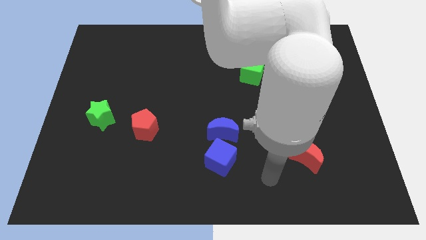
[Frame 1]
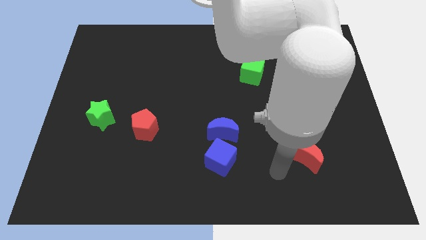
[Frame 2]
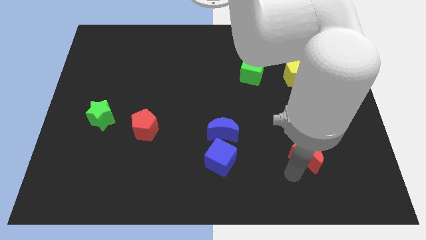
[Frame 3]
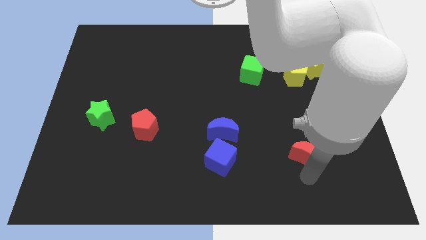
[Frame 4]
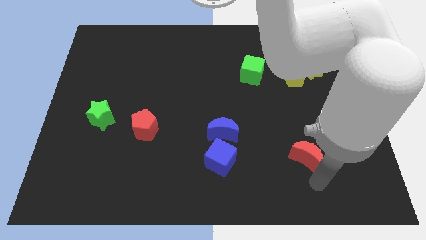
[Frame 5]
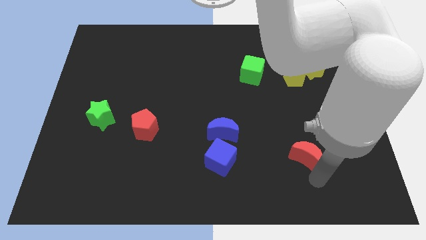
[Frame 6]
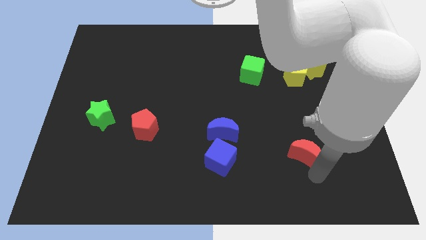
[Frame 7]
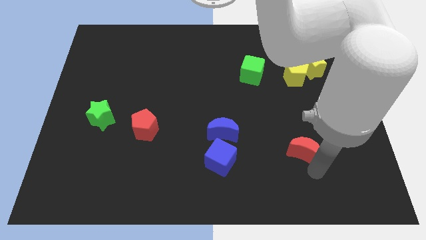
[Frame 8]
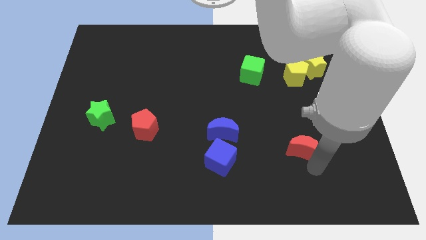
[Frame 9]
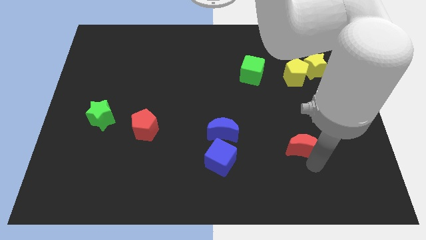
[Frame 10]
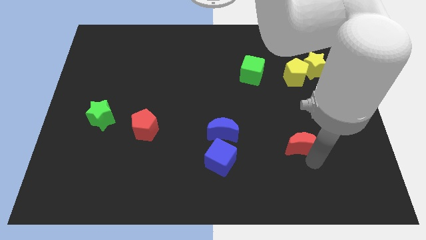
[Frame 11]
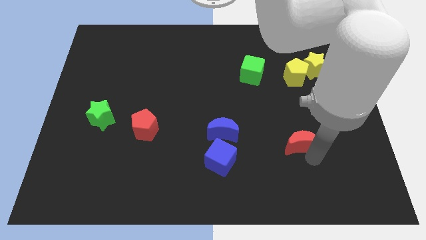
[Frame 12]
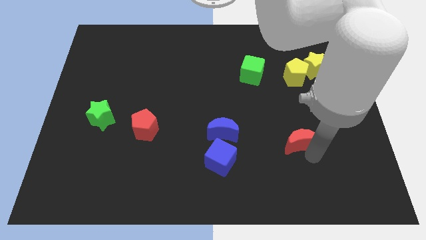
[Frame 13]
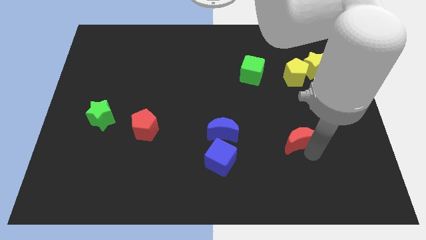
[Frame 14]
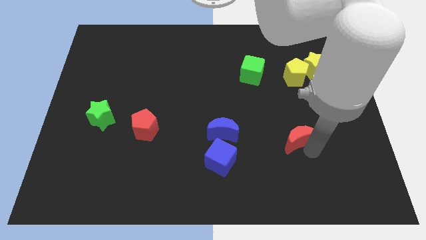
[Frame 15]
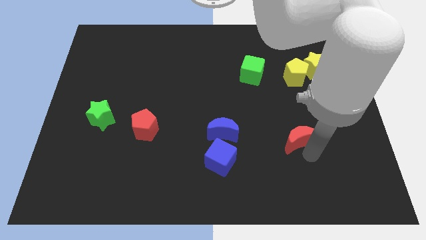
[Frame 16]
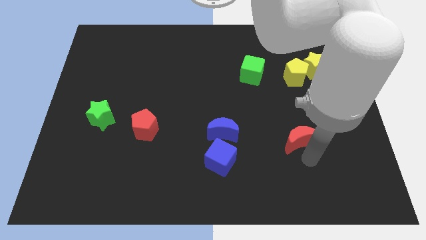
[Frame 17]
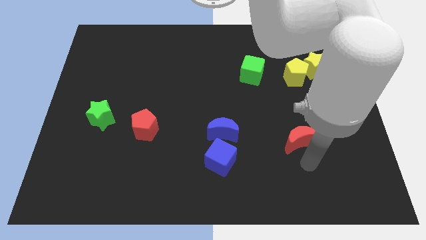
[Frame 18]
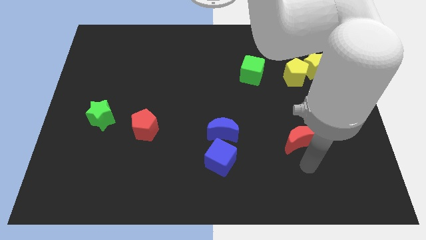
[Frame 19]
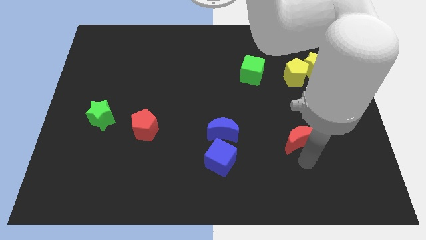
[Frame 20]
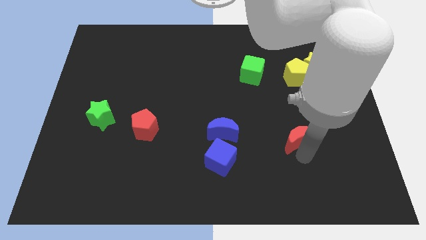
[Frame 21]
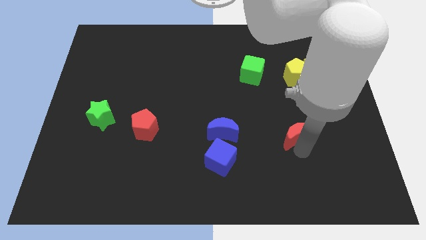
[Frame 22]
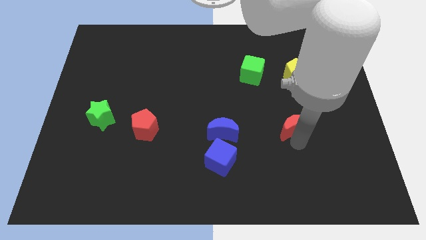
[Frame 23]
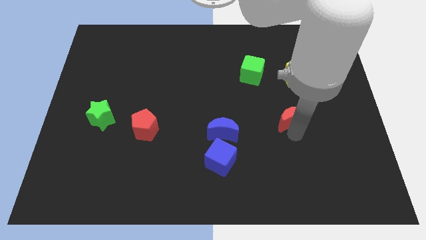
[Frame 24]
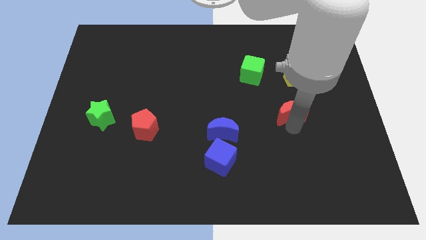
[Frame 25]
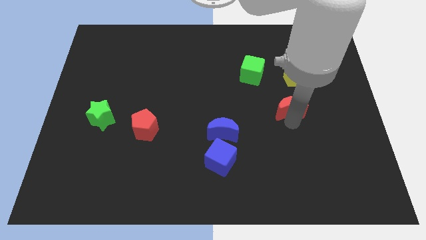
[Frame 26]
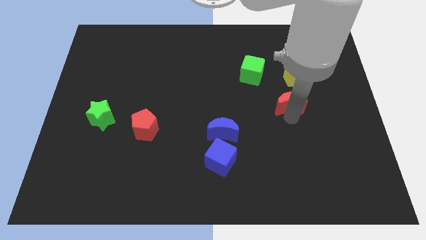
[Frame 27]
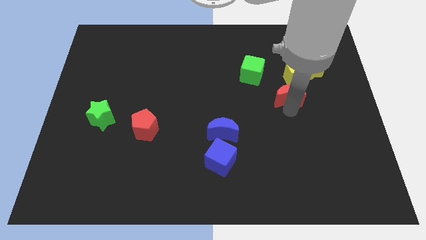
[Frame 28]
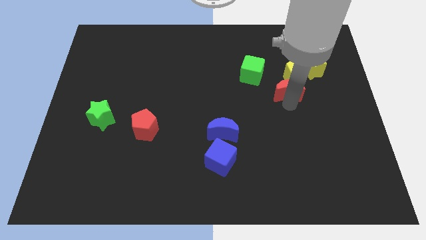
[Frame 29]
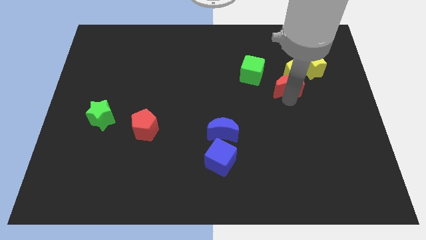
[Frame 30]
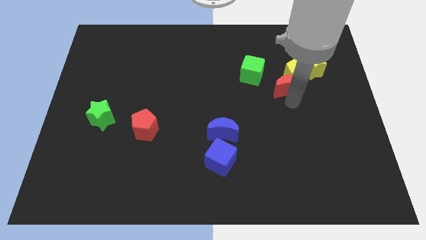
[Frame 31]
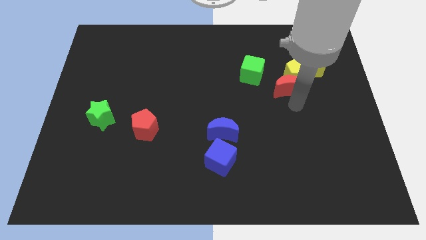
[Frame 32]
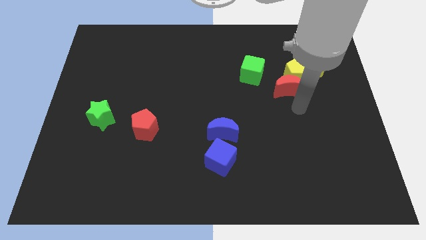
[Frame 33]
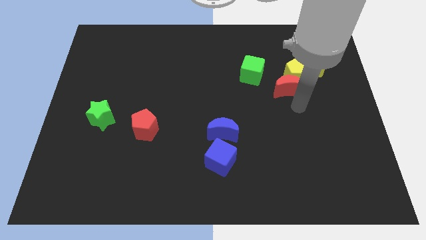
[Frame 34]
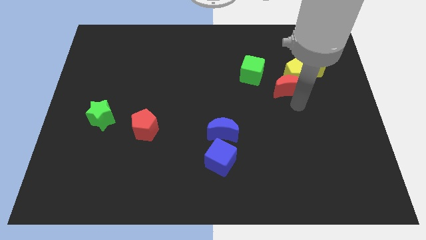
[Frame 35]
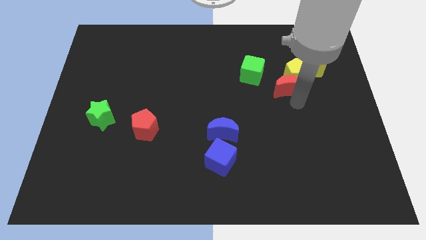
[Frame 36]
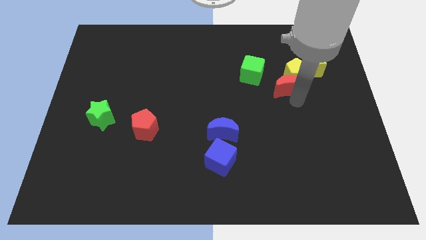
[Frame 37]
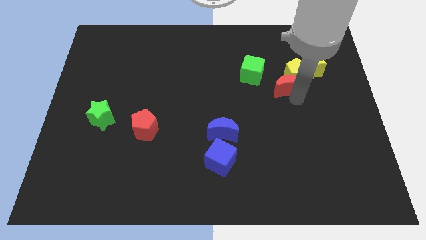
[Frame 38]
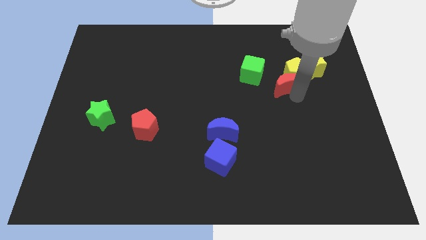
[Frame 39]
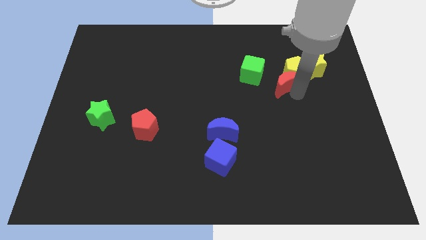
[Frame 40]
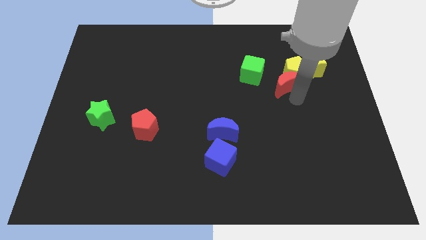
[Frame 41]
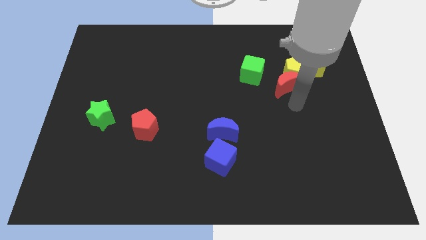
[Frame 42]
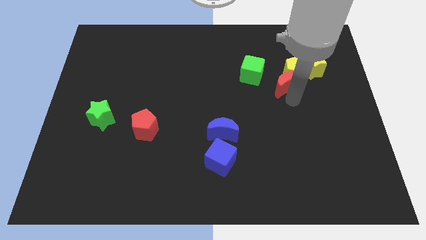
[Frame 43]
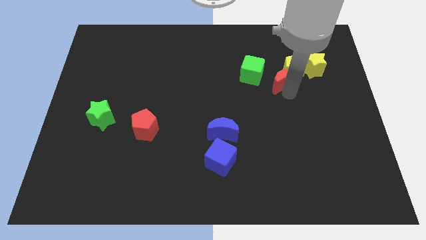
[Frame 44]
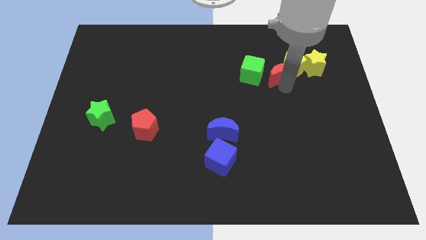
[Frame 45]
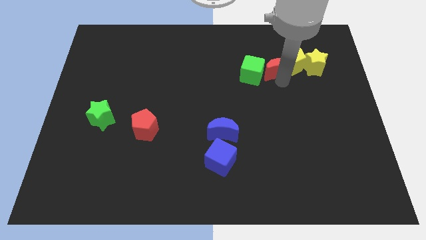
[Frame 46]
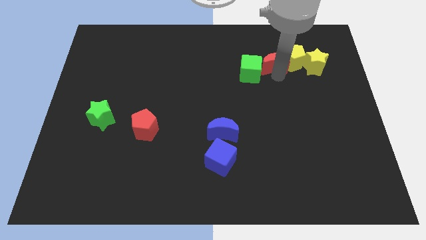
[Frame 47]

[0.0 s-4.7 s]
put the red moon to the top left of the yellow pentagon

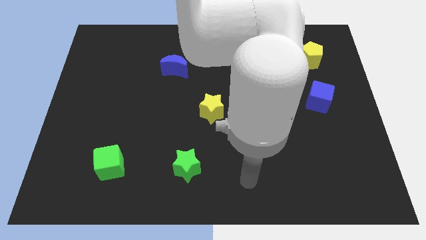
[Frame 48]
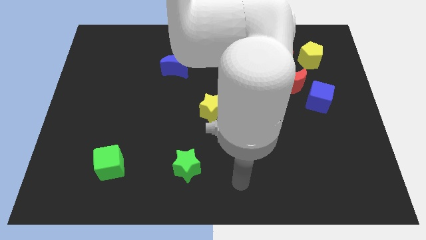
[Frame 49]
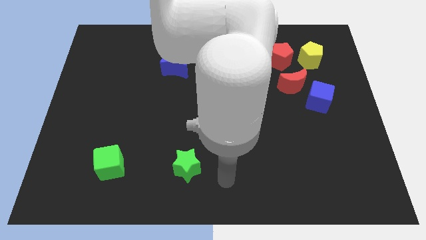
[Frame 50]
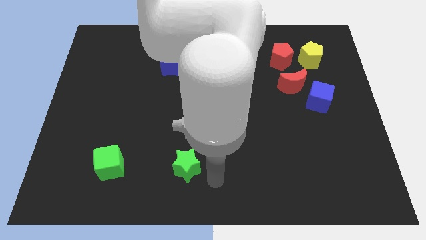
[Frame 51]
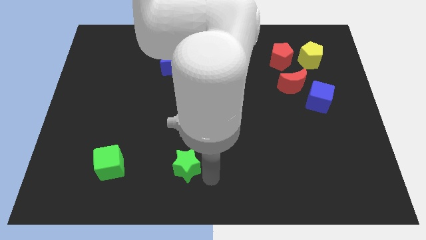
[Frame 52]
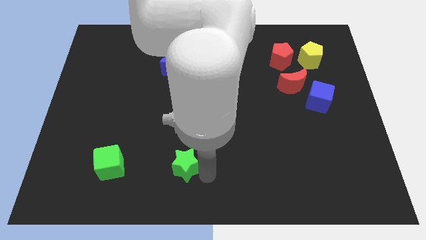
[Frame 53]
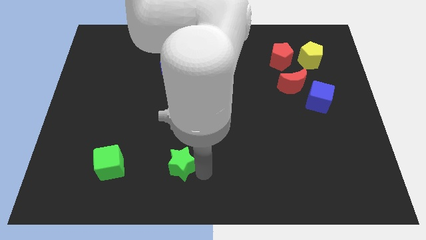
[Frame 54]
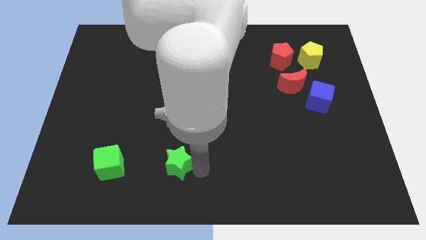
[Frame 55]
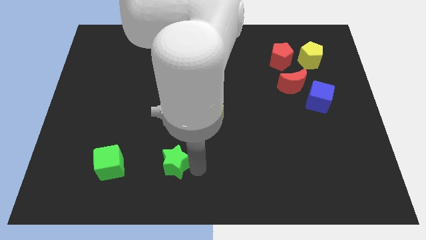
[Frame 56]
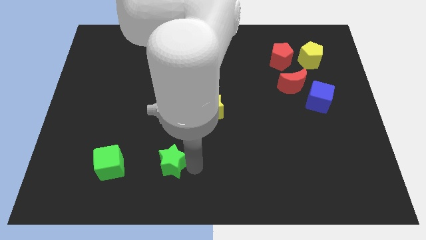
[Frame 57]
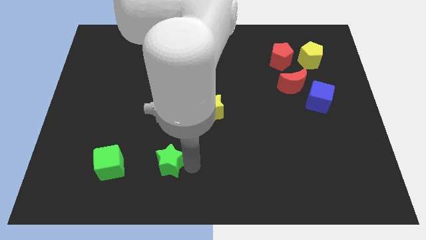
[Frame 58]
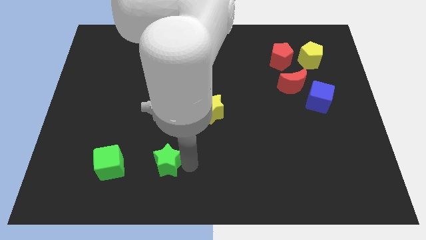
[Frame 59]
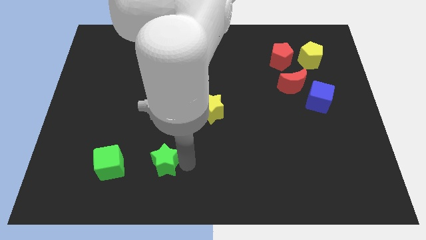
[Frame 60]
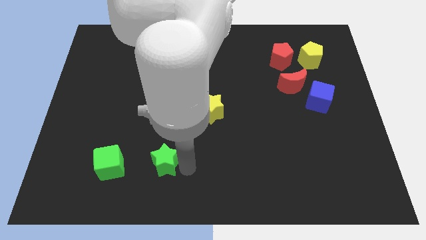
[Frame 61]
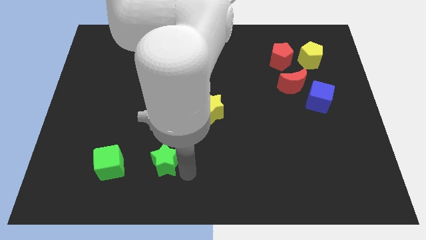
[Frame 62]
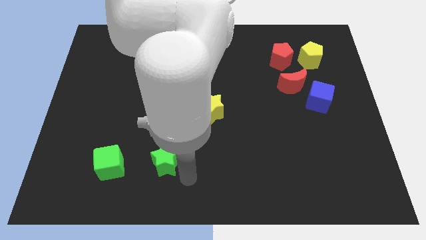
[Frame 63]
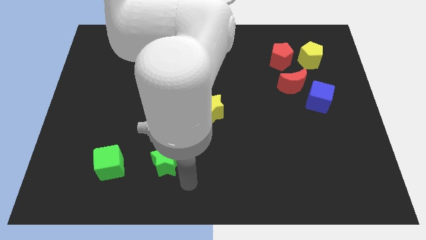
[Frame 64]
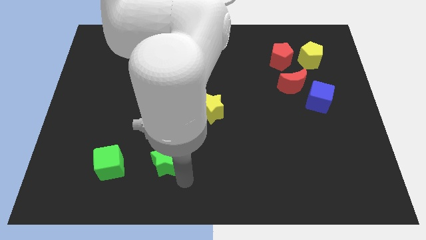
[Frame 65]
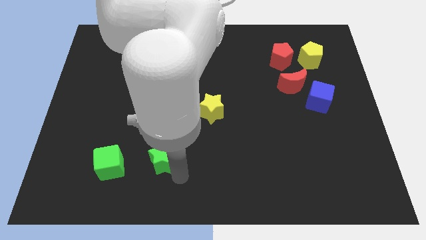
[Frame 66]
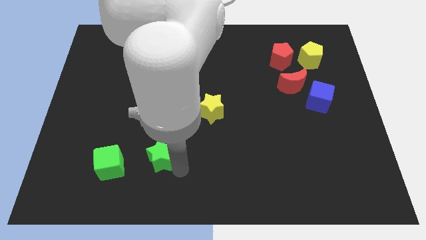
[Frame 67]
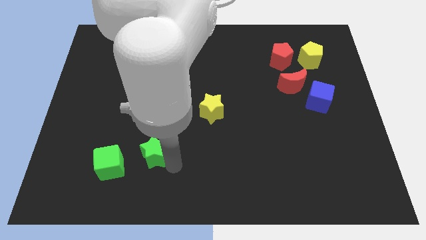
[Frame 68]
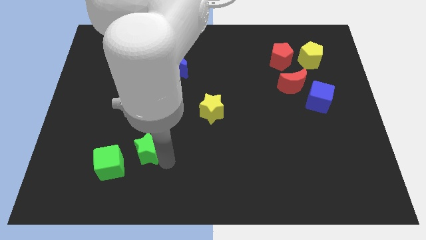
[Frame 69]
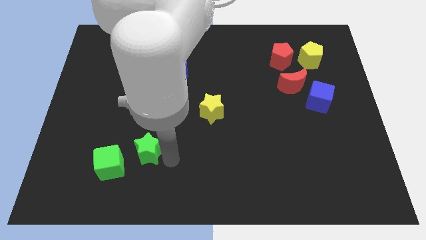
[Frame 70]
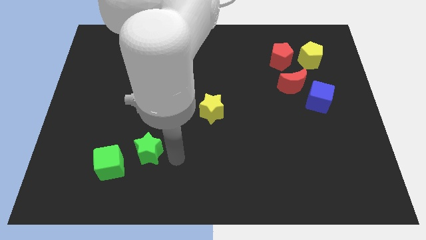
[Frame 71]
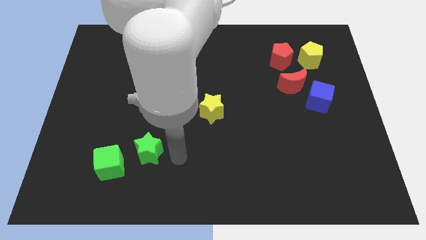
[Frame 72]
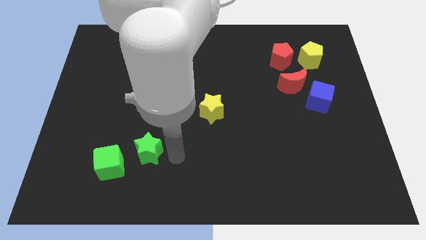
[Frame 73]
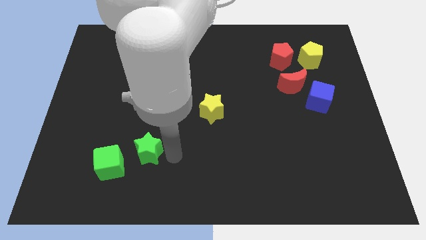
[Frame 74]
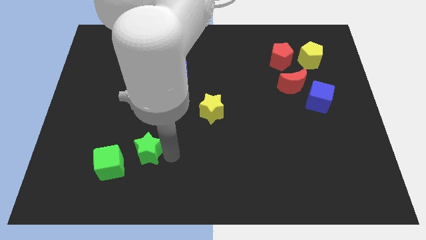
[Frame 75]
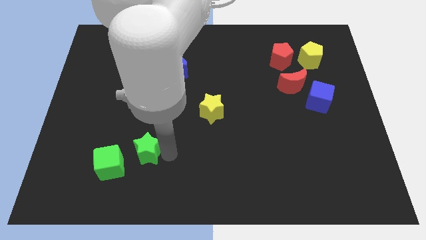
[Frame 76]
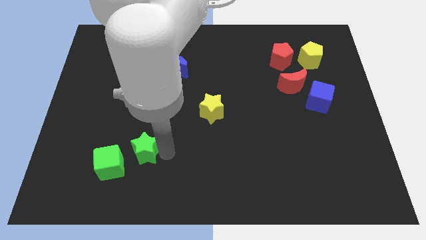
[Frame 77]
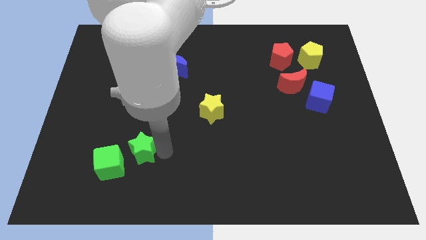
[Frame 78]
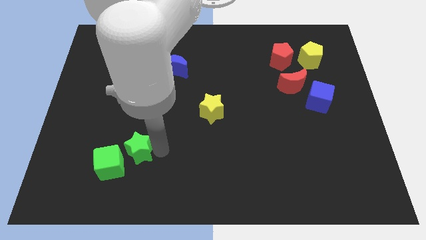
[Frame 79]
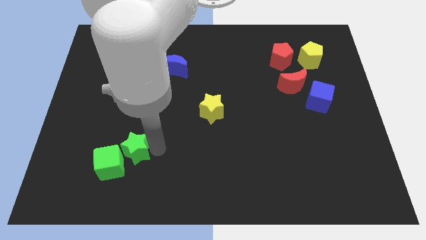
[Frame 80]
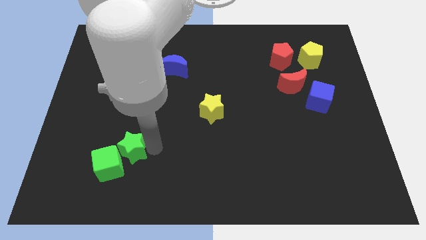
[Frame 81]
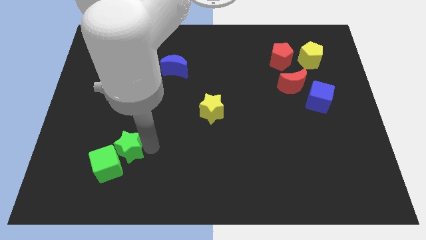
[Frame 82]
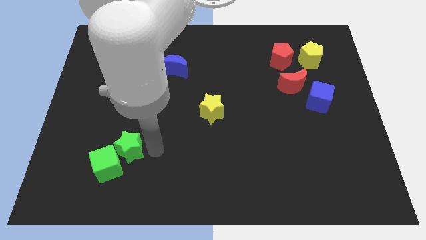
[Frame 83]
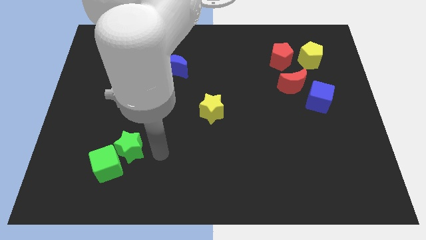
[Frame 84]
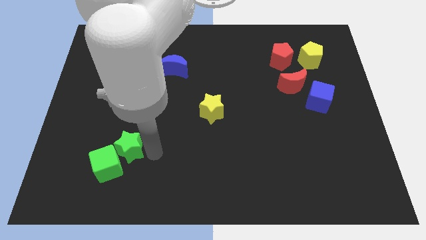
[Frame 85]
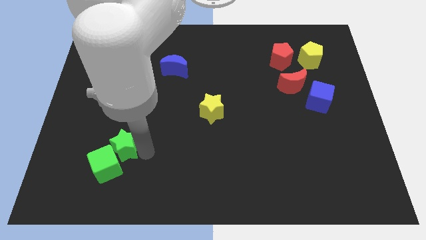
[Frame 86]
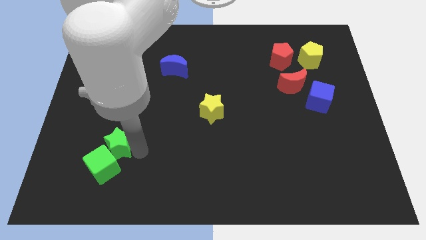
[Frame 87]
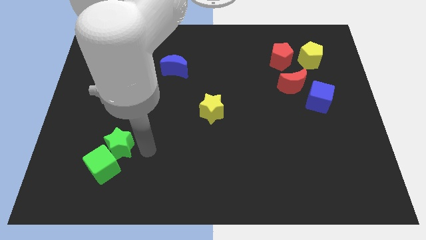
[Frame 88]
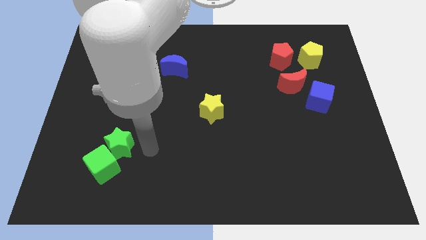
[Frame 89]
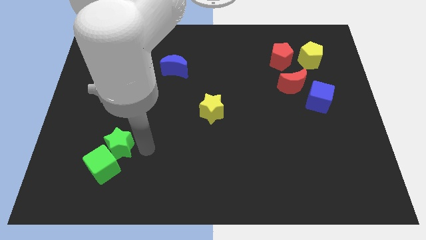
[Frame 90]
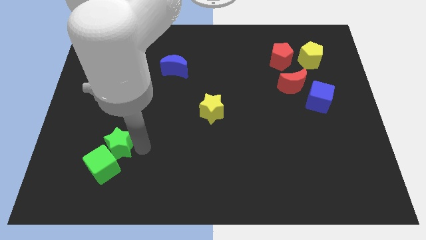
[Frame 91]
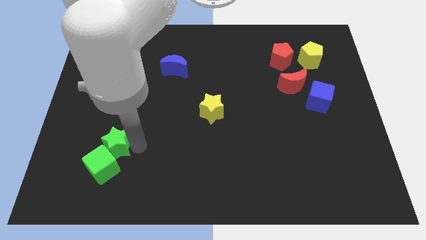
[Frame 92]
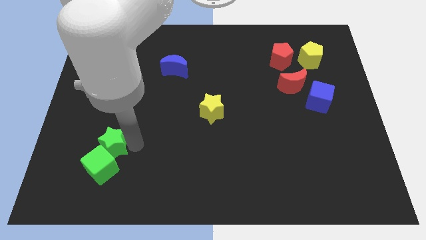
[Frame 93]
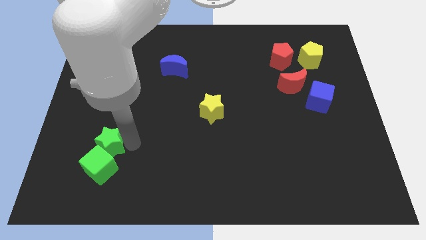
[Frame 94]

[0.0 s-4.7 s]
move the green star diagonally up and to the left of the green cube
